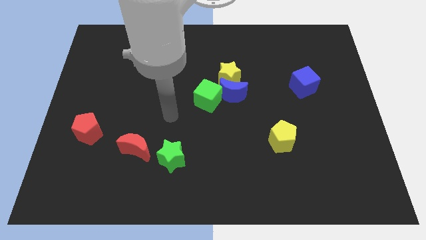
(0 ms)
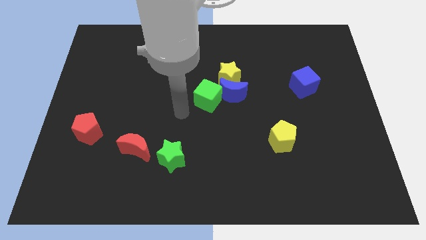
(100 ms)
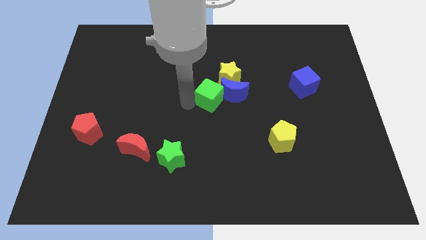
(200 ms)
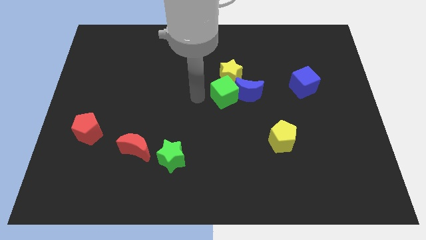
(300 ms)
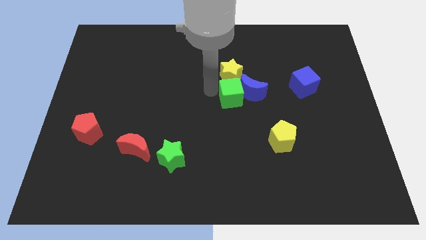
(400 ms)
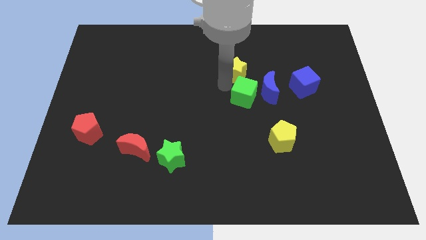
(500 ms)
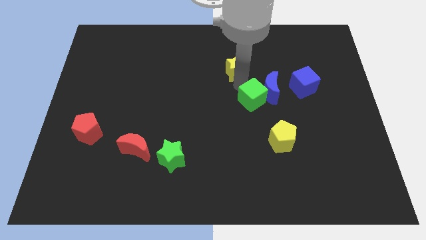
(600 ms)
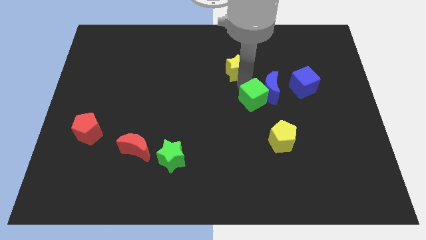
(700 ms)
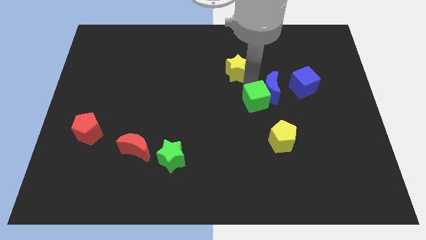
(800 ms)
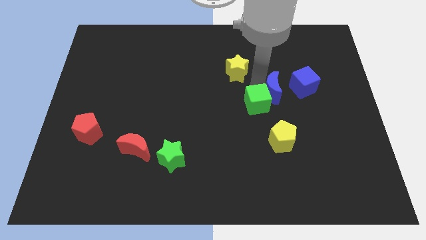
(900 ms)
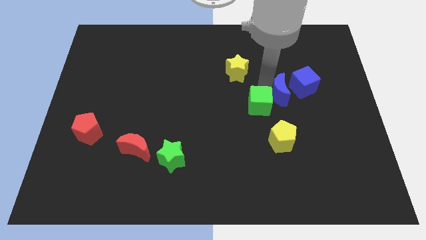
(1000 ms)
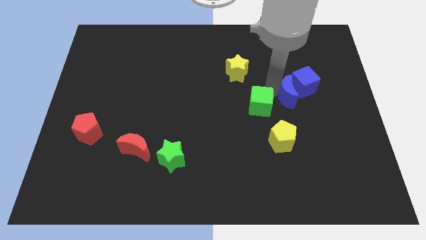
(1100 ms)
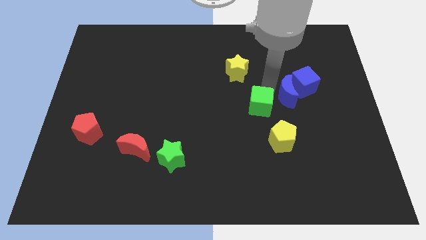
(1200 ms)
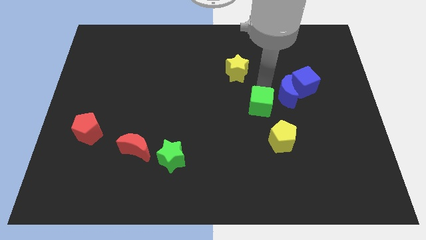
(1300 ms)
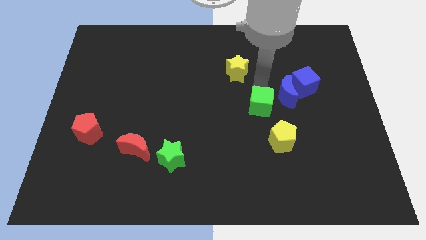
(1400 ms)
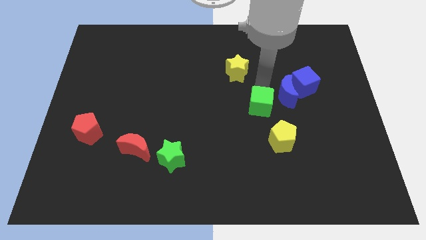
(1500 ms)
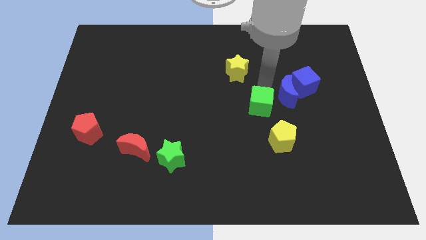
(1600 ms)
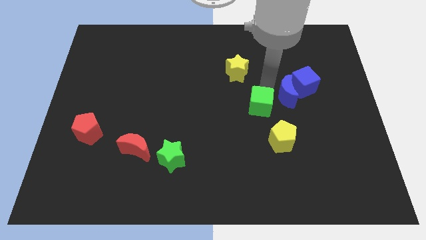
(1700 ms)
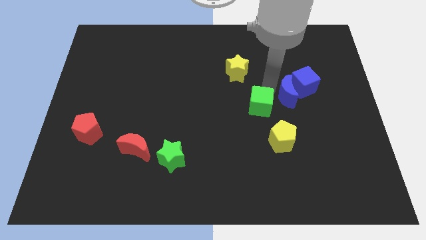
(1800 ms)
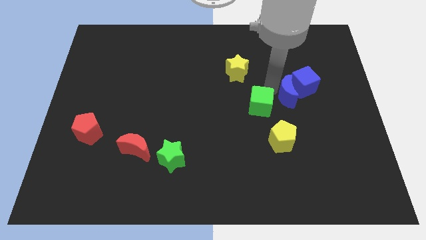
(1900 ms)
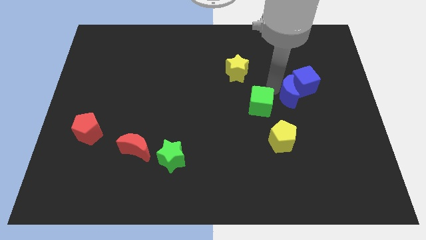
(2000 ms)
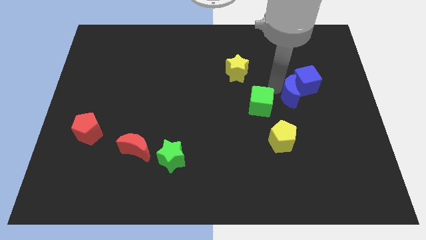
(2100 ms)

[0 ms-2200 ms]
pull the blue moon apart from the yellow star and green cube

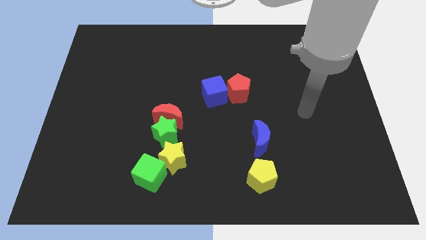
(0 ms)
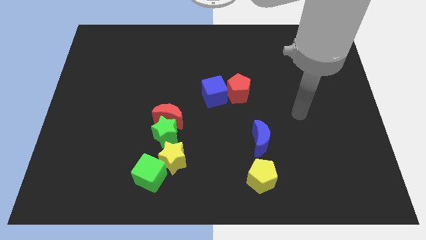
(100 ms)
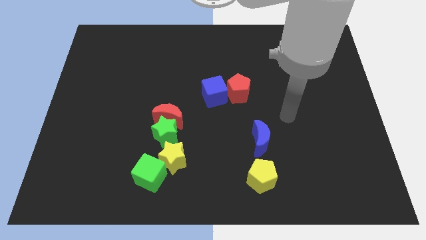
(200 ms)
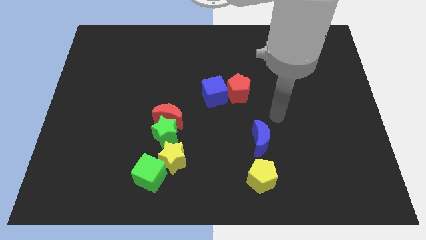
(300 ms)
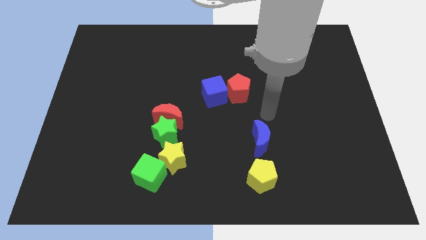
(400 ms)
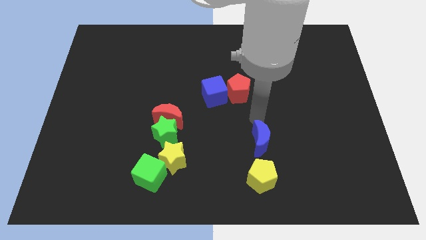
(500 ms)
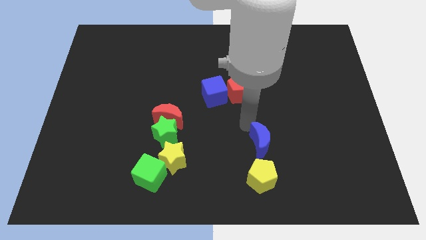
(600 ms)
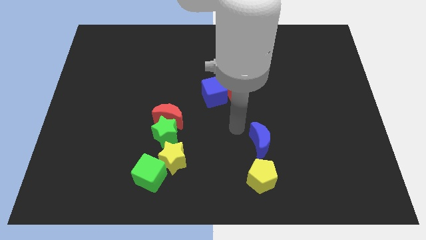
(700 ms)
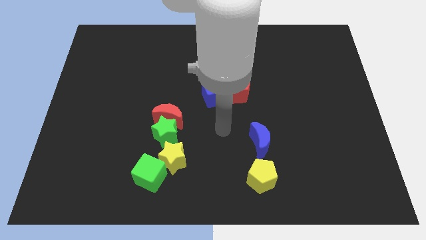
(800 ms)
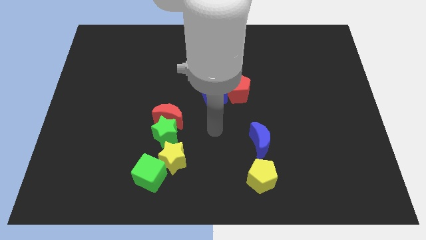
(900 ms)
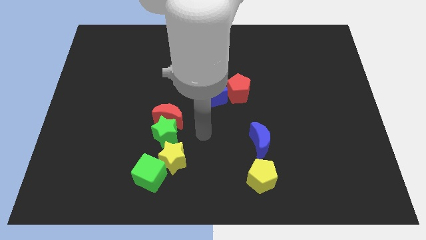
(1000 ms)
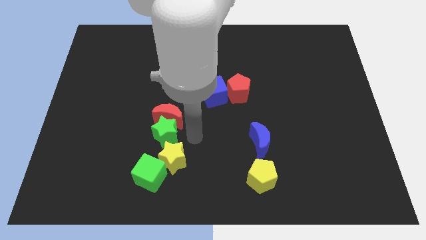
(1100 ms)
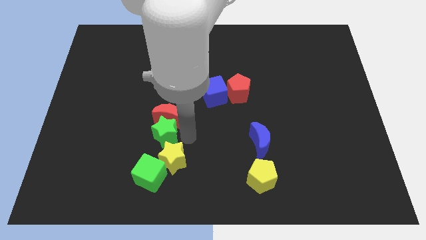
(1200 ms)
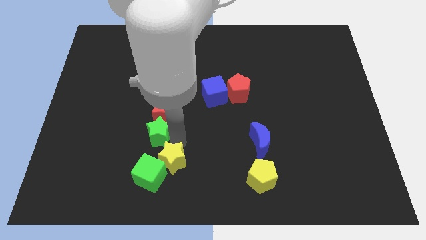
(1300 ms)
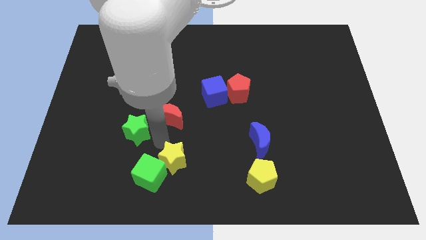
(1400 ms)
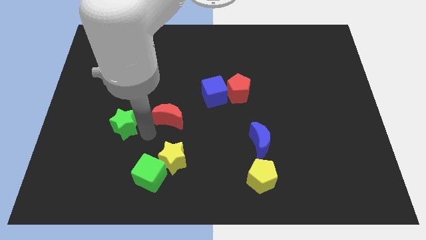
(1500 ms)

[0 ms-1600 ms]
separate the red moon from the green star

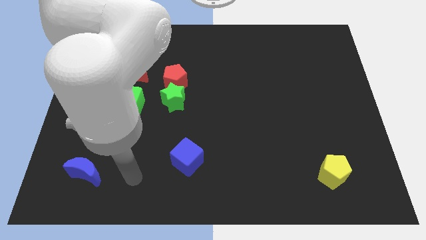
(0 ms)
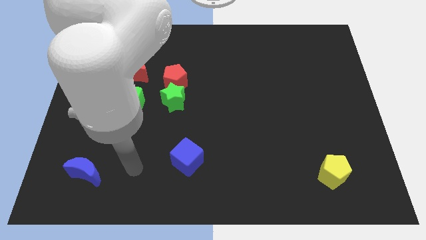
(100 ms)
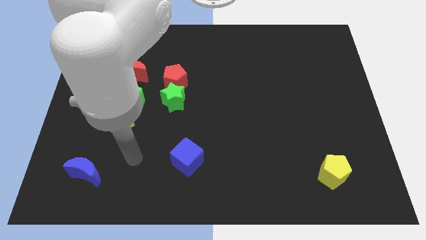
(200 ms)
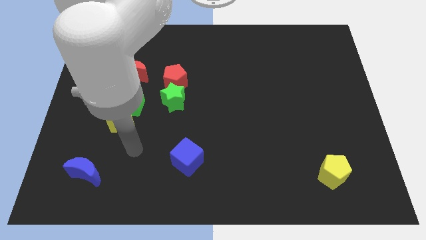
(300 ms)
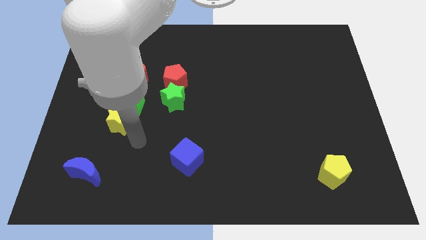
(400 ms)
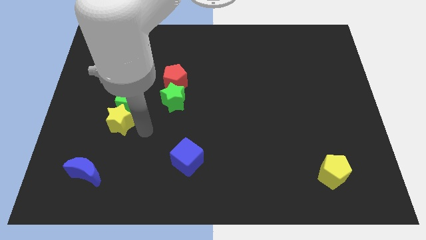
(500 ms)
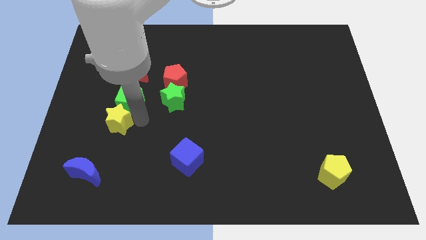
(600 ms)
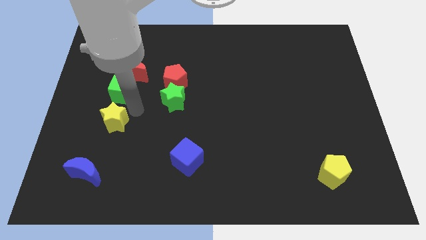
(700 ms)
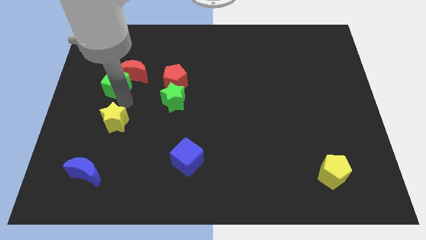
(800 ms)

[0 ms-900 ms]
move the yellow star away from the green cube

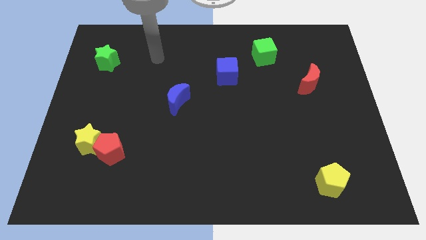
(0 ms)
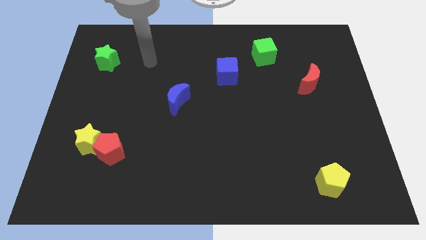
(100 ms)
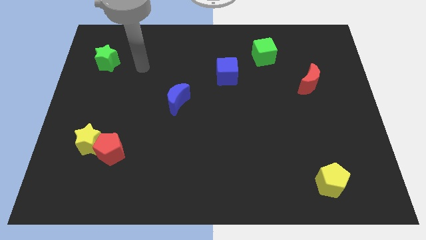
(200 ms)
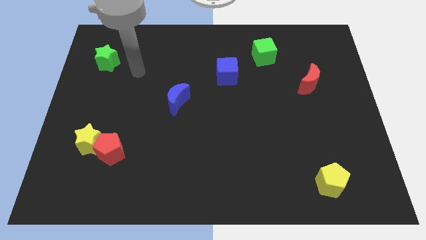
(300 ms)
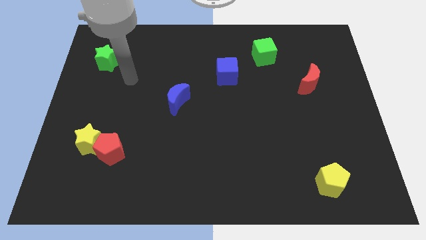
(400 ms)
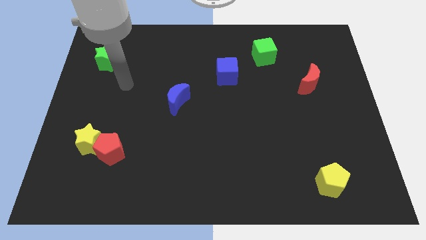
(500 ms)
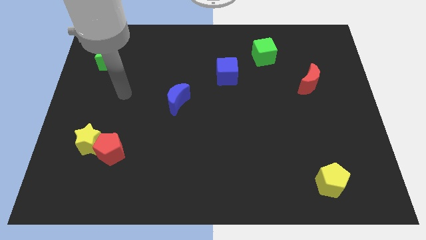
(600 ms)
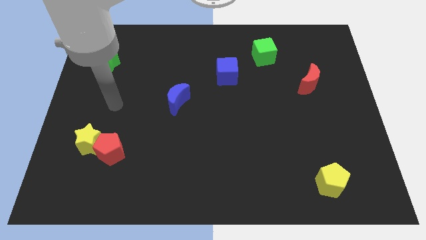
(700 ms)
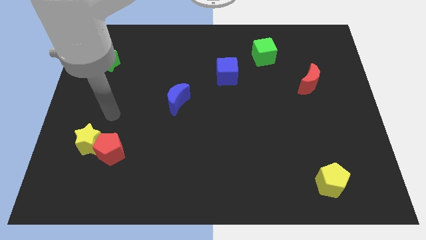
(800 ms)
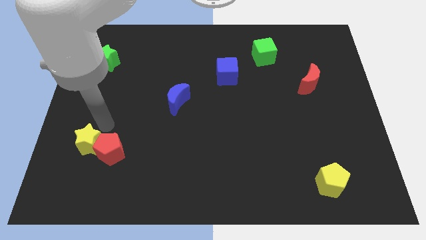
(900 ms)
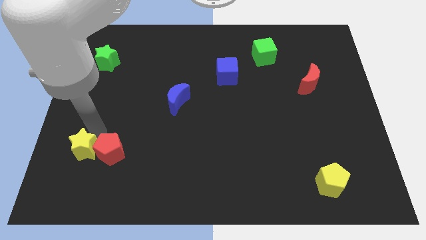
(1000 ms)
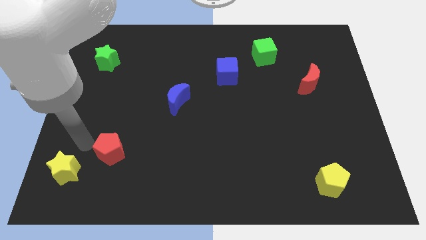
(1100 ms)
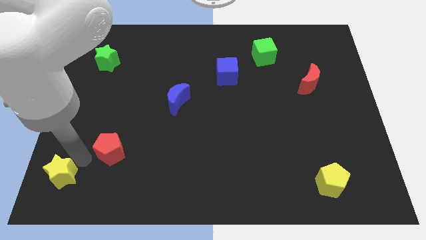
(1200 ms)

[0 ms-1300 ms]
move the red pentagon away from the yellow star

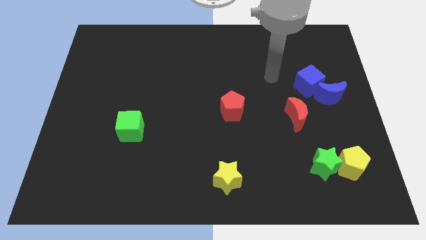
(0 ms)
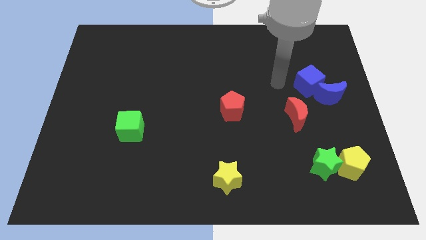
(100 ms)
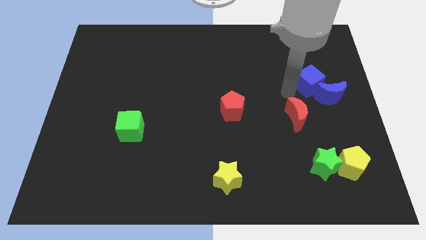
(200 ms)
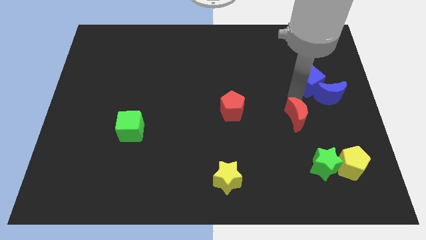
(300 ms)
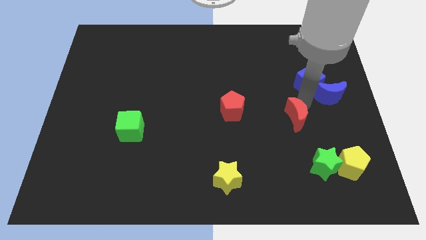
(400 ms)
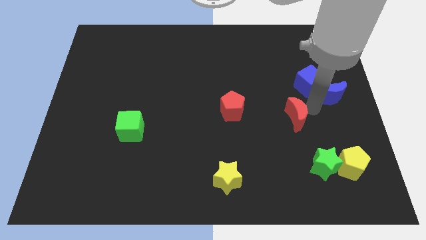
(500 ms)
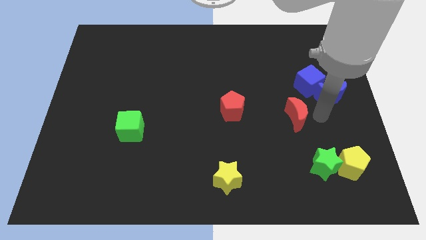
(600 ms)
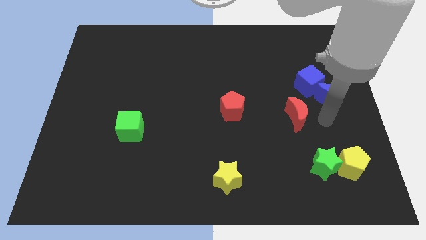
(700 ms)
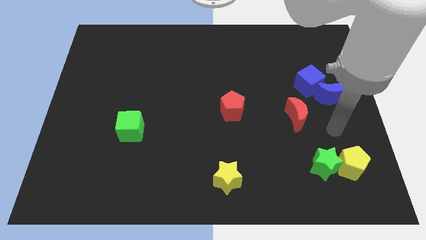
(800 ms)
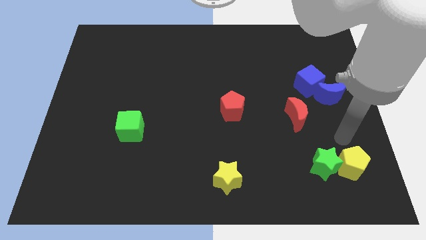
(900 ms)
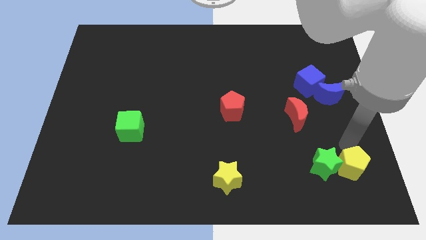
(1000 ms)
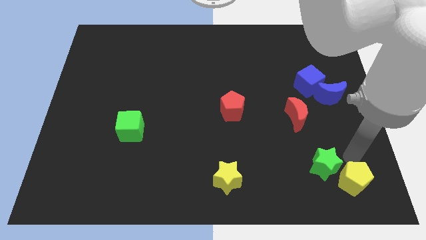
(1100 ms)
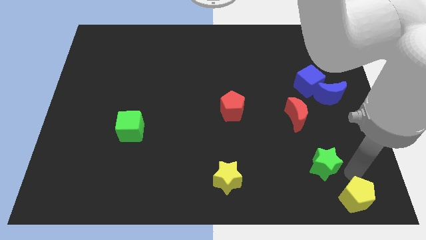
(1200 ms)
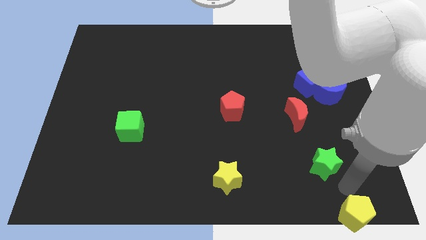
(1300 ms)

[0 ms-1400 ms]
pull the green star apart from the yellow pentagon

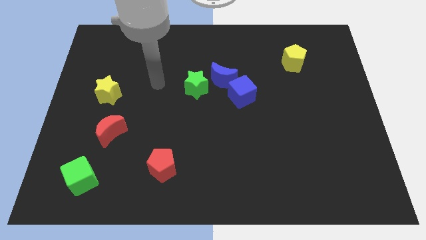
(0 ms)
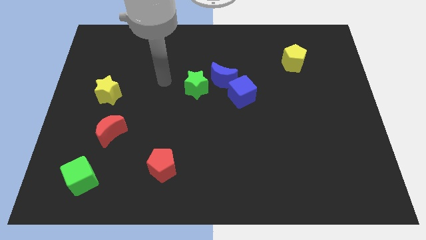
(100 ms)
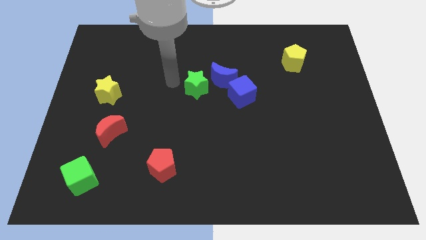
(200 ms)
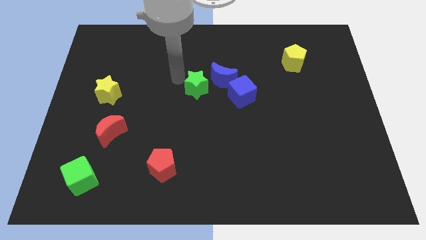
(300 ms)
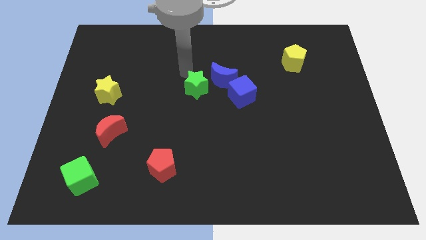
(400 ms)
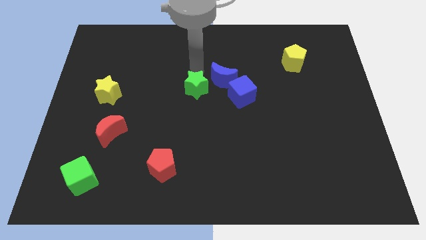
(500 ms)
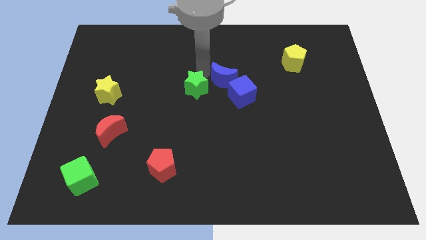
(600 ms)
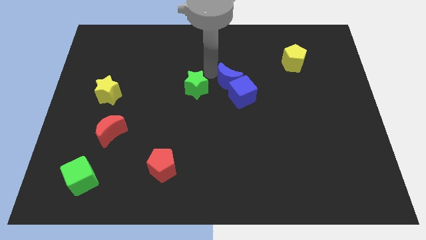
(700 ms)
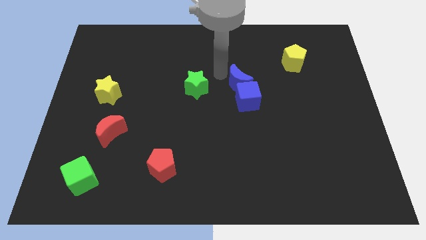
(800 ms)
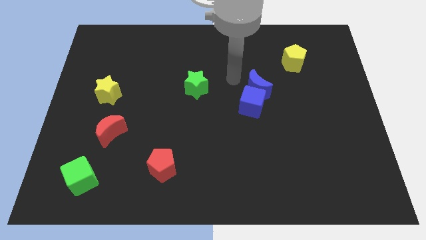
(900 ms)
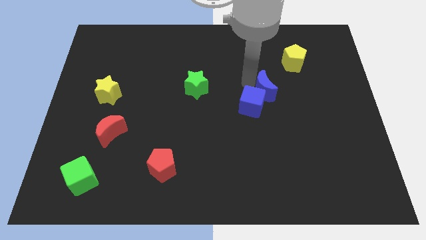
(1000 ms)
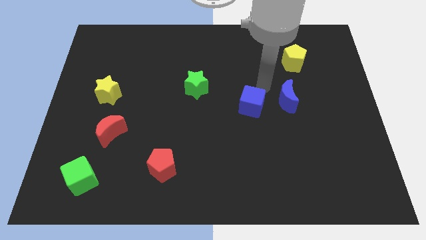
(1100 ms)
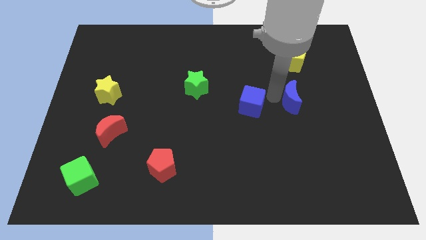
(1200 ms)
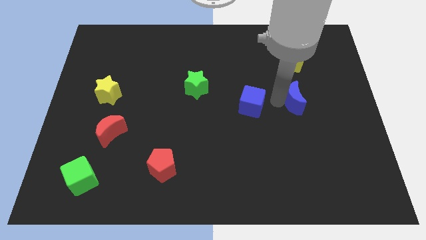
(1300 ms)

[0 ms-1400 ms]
move the blue cube away from the blue moon

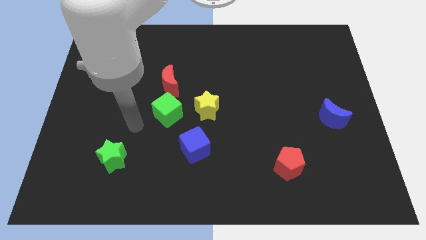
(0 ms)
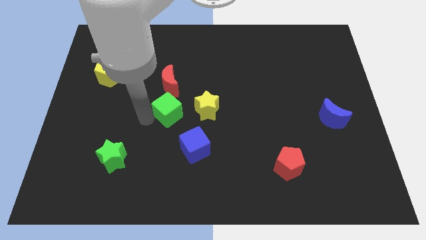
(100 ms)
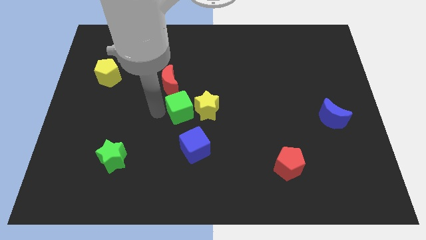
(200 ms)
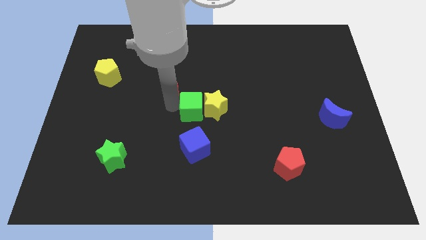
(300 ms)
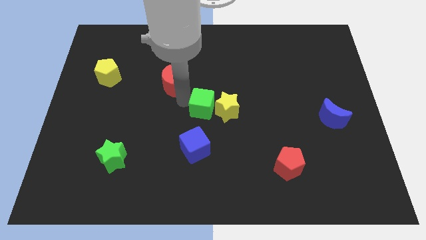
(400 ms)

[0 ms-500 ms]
separate the red moon from the green cube
